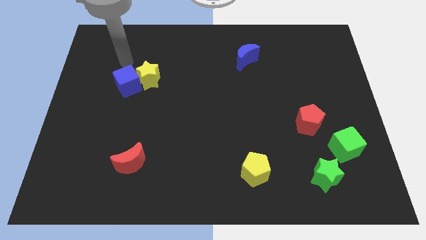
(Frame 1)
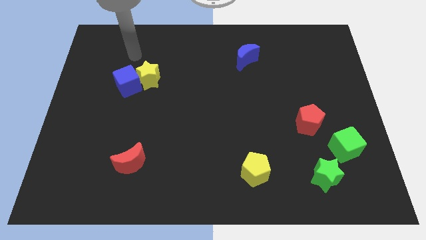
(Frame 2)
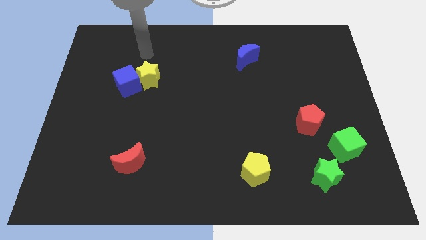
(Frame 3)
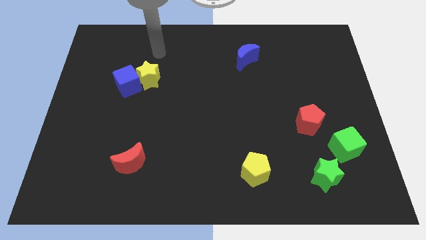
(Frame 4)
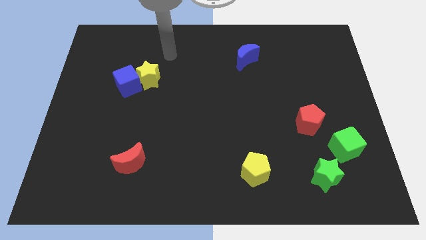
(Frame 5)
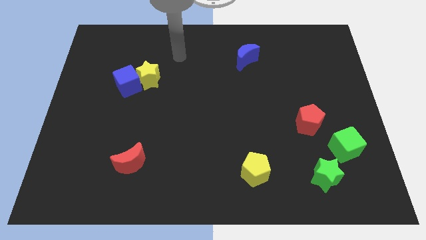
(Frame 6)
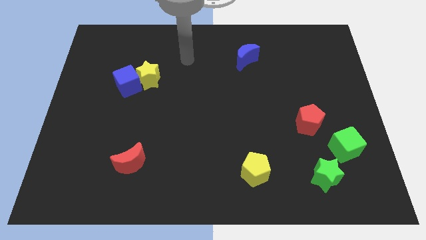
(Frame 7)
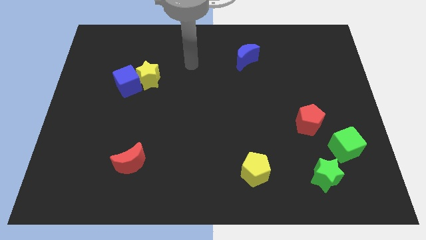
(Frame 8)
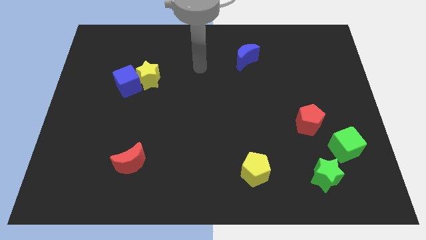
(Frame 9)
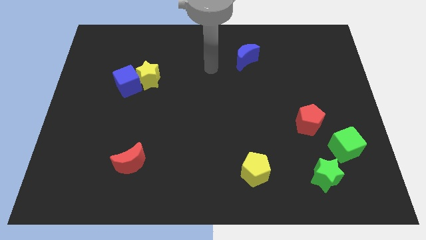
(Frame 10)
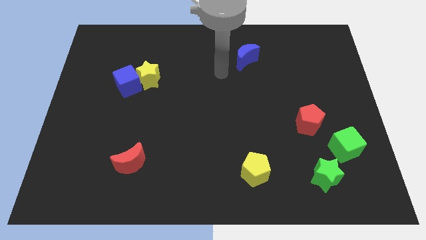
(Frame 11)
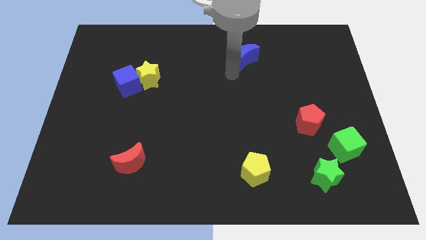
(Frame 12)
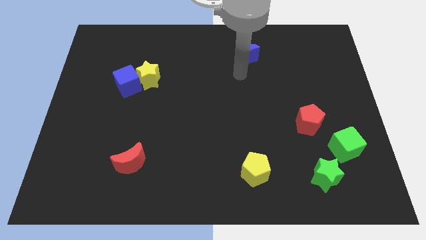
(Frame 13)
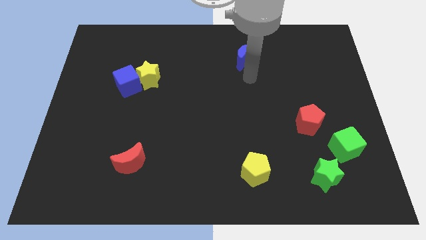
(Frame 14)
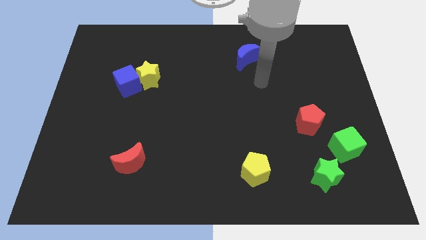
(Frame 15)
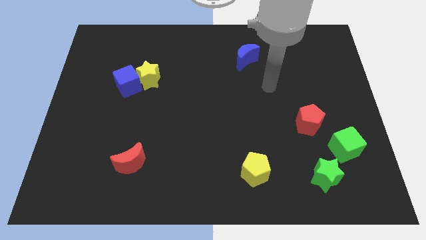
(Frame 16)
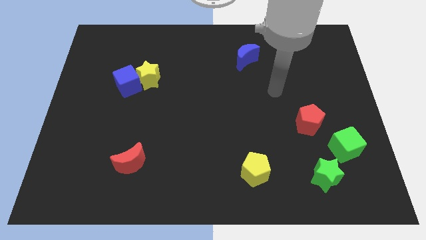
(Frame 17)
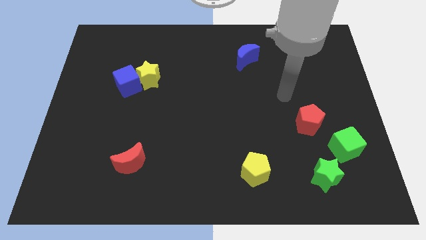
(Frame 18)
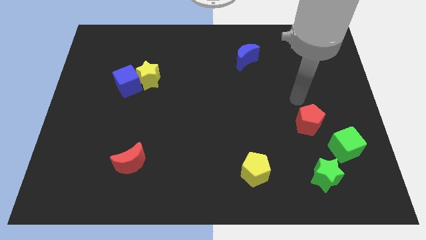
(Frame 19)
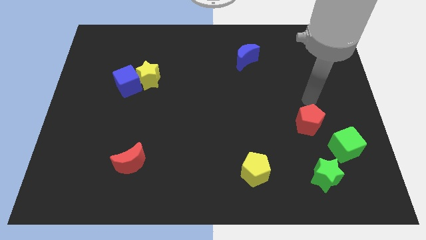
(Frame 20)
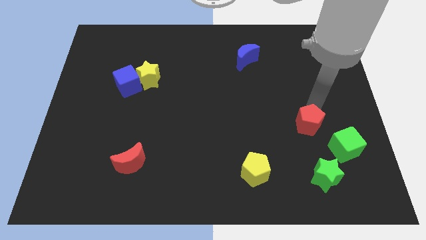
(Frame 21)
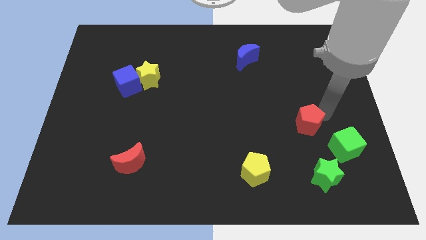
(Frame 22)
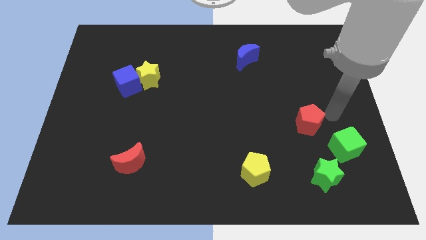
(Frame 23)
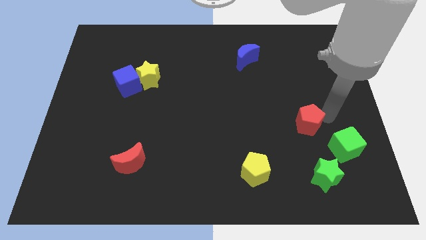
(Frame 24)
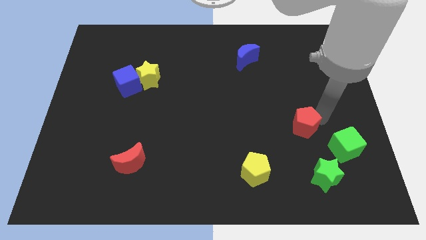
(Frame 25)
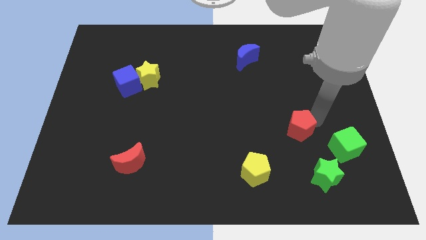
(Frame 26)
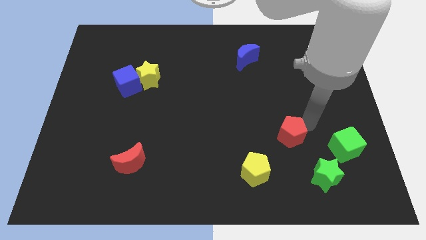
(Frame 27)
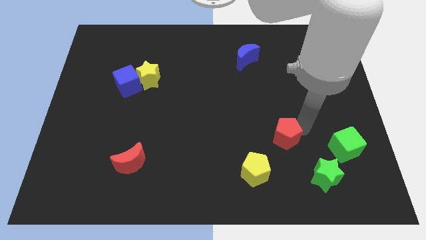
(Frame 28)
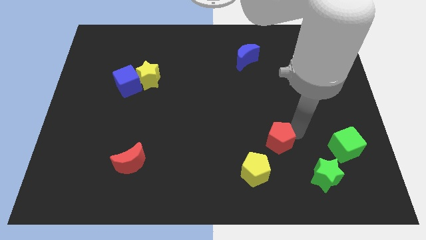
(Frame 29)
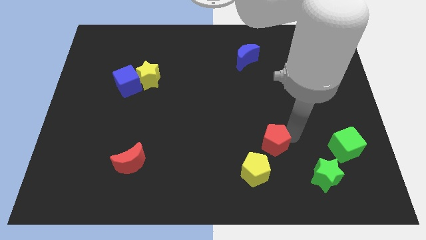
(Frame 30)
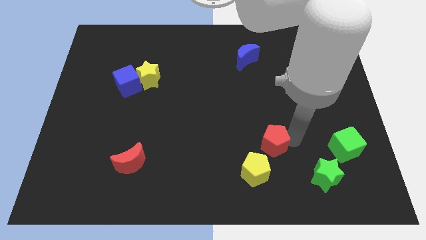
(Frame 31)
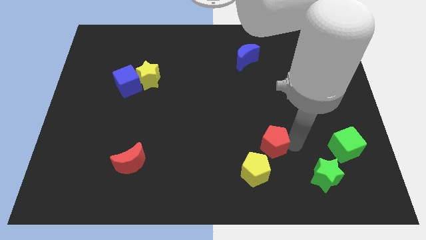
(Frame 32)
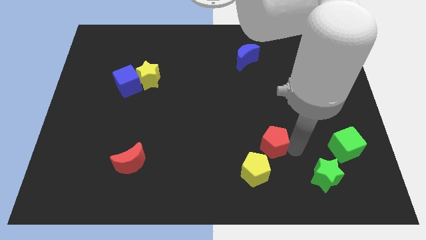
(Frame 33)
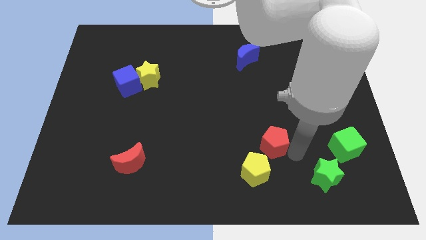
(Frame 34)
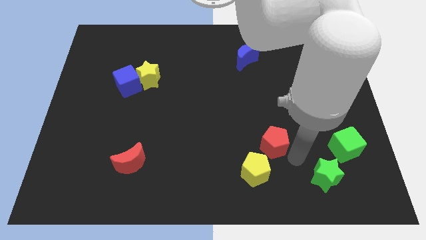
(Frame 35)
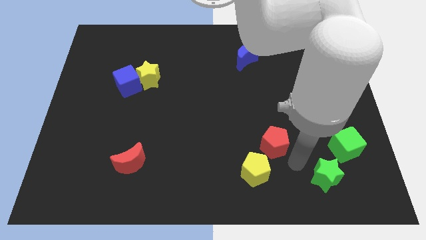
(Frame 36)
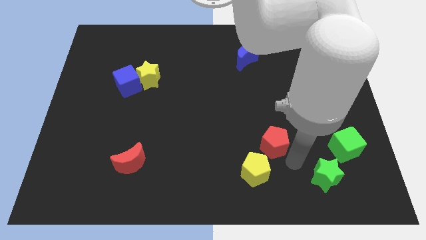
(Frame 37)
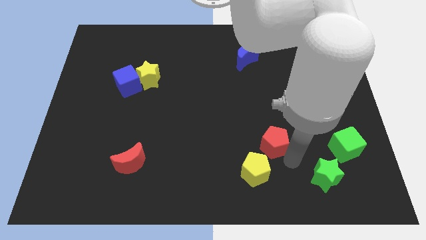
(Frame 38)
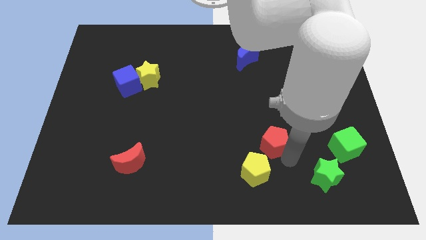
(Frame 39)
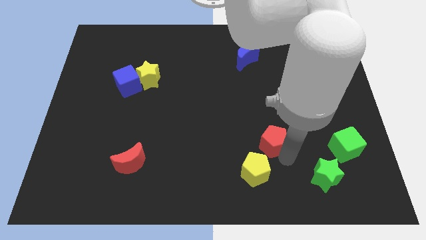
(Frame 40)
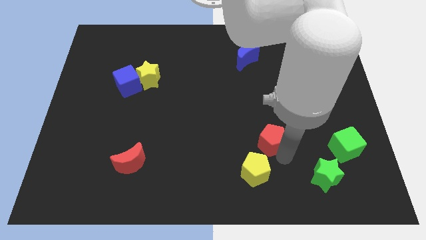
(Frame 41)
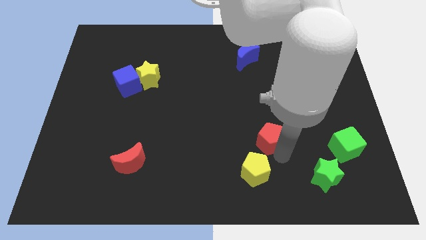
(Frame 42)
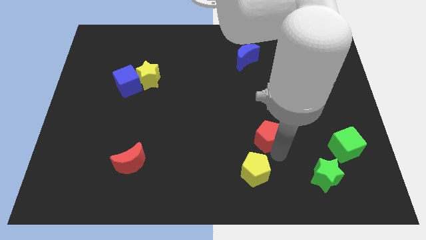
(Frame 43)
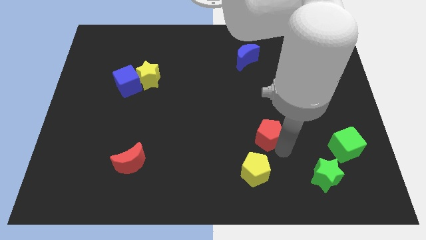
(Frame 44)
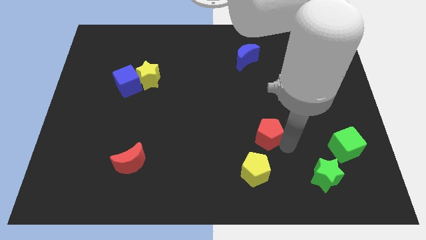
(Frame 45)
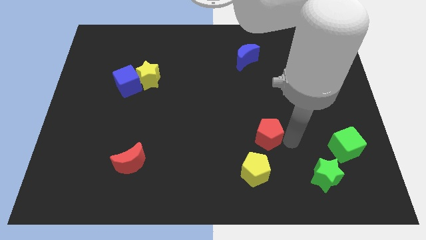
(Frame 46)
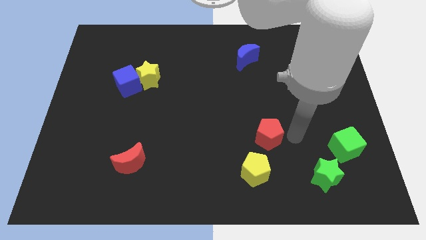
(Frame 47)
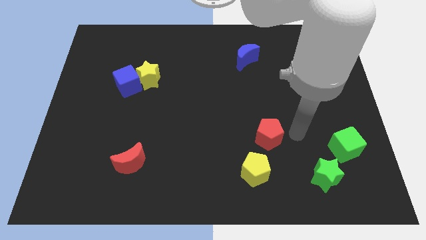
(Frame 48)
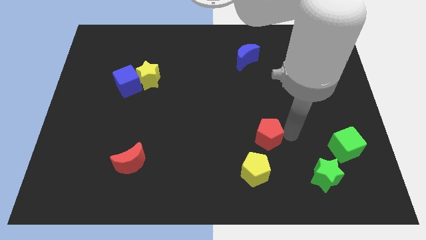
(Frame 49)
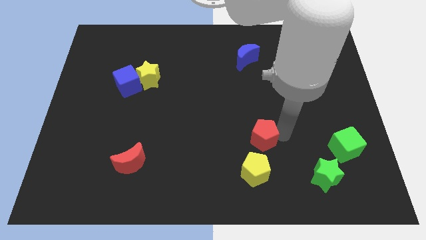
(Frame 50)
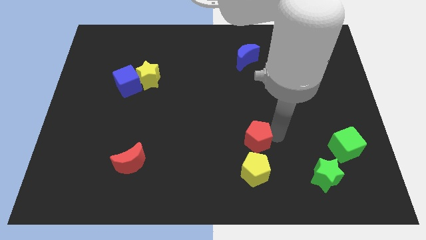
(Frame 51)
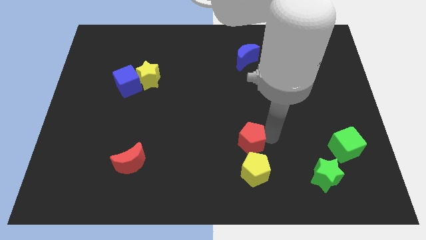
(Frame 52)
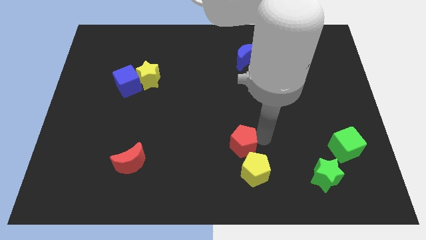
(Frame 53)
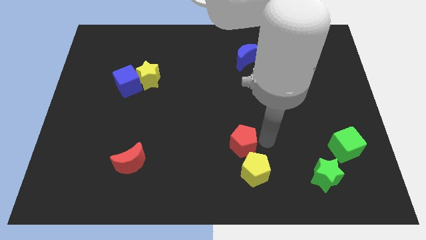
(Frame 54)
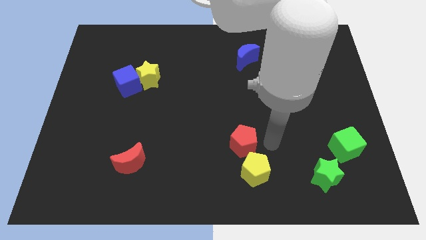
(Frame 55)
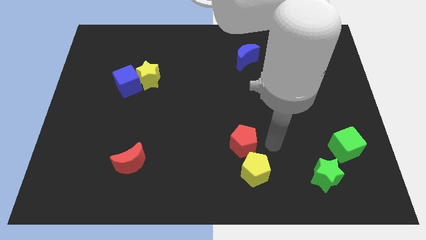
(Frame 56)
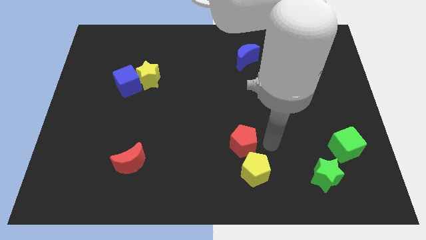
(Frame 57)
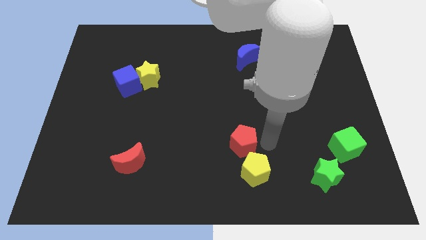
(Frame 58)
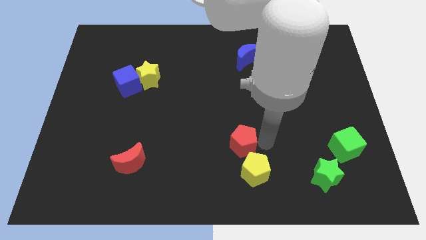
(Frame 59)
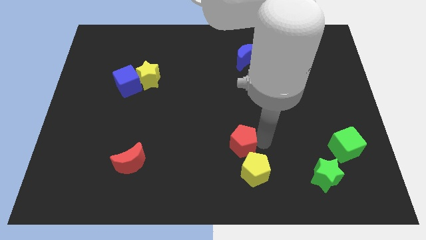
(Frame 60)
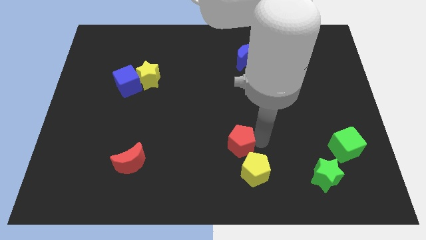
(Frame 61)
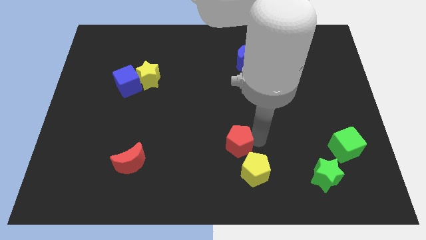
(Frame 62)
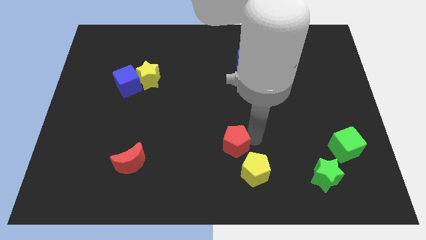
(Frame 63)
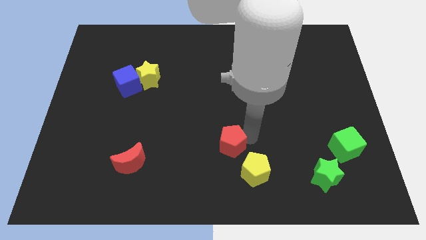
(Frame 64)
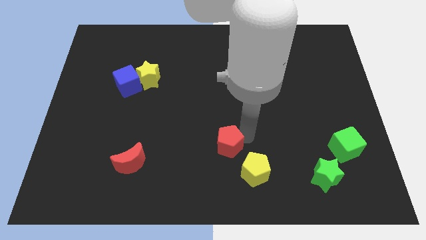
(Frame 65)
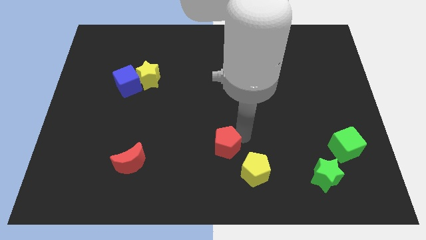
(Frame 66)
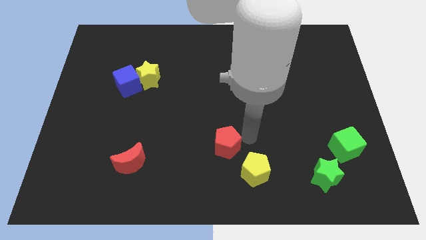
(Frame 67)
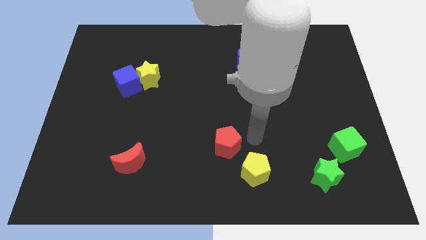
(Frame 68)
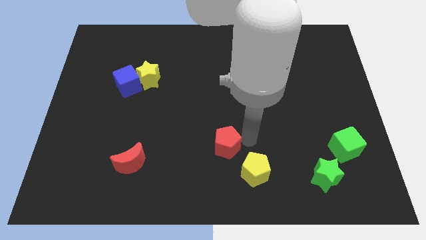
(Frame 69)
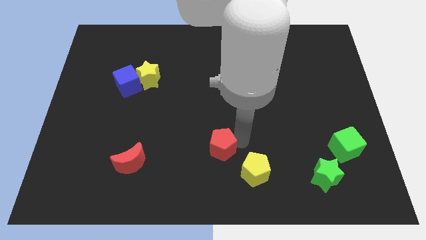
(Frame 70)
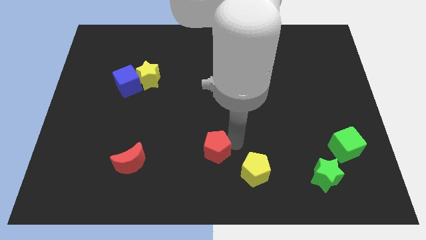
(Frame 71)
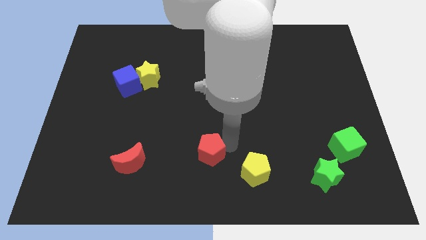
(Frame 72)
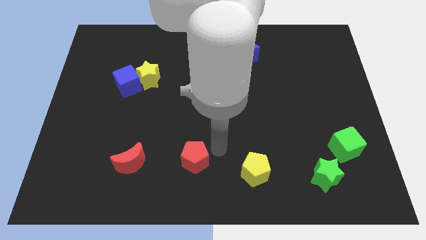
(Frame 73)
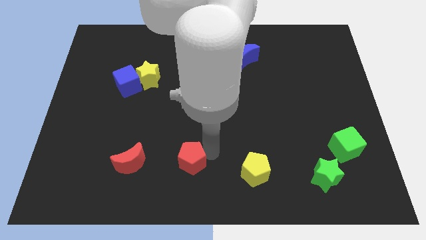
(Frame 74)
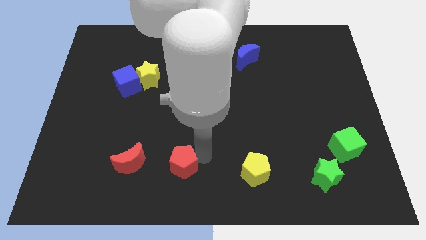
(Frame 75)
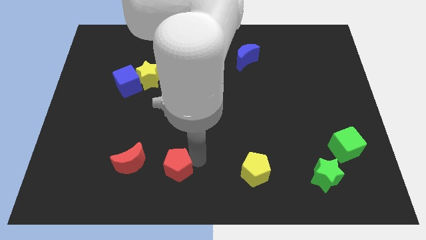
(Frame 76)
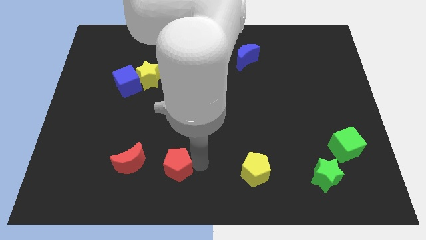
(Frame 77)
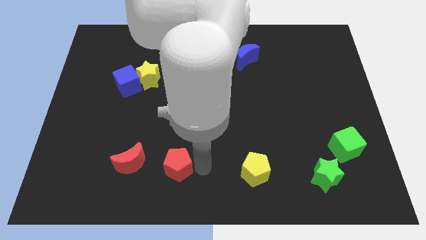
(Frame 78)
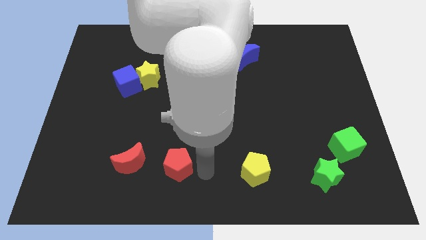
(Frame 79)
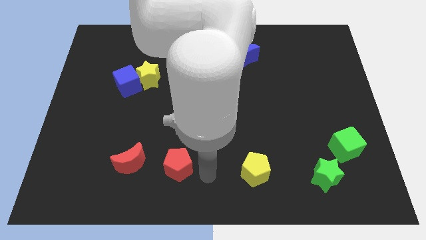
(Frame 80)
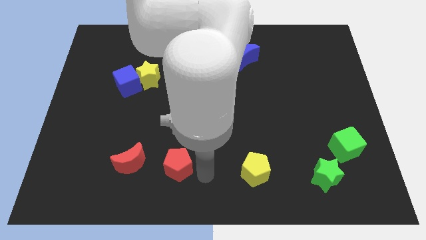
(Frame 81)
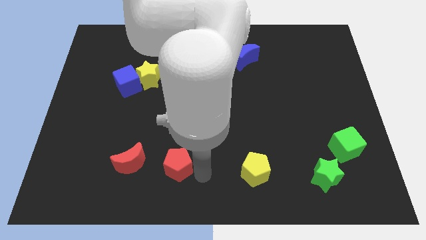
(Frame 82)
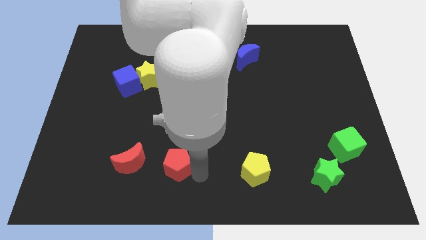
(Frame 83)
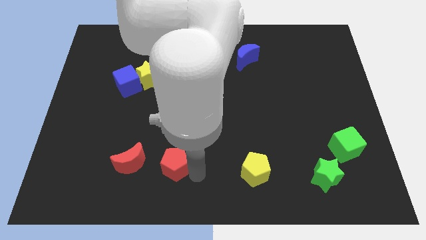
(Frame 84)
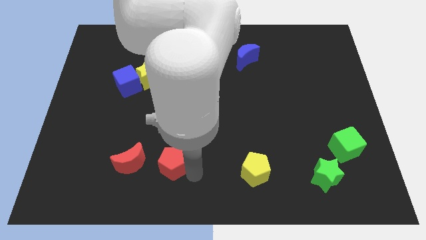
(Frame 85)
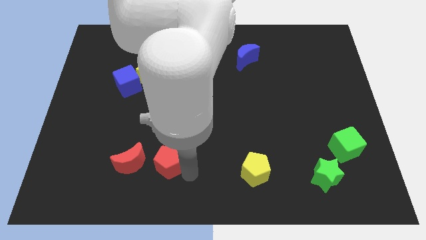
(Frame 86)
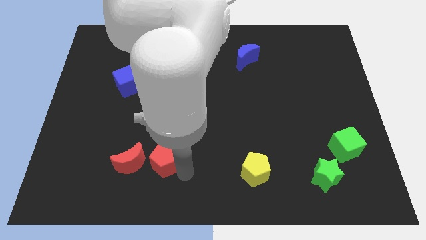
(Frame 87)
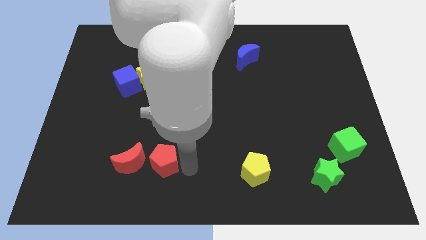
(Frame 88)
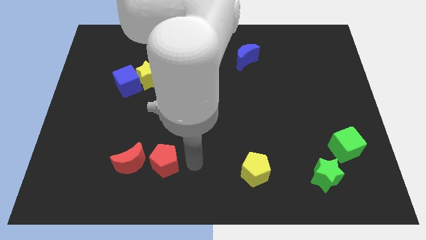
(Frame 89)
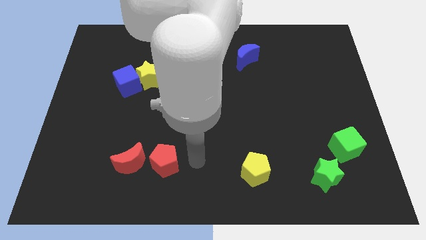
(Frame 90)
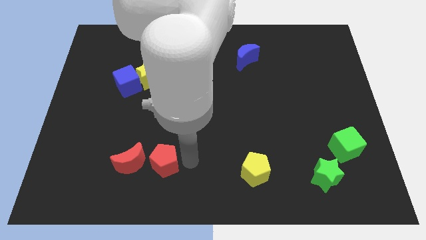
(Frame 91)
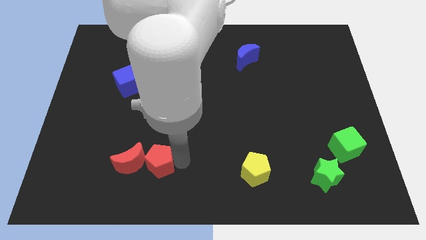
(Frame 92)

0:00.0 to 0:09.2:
put the red pentagon next to the red moon
